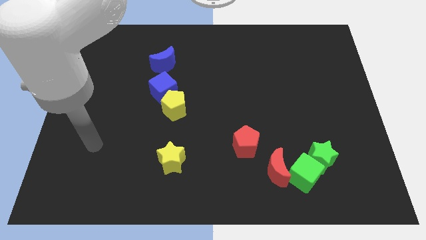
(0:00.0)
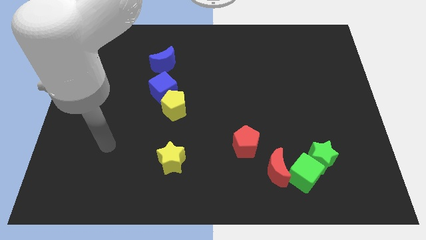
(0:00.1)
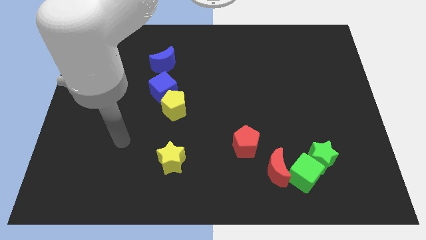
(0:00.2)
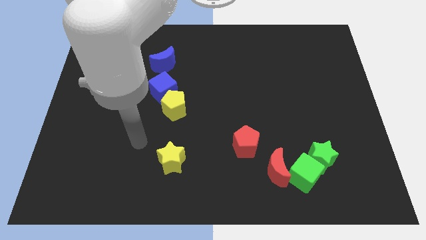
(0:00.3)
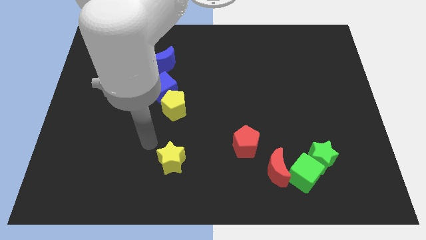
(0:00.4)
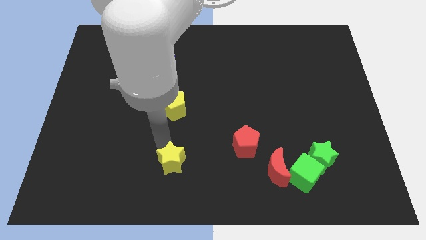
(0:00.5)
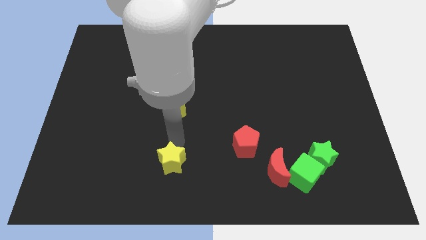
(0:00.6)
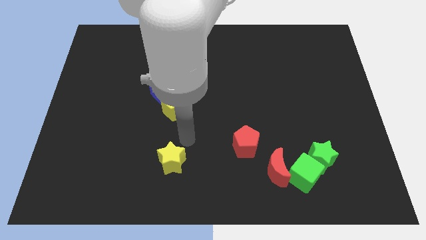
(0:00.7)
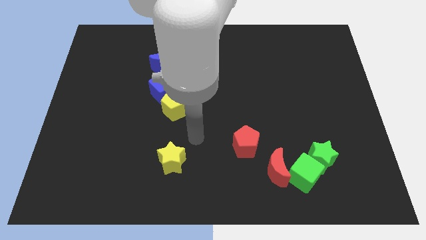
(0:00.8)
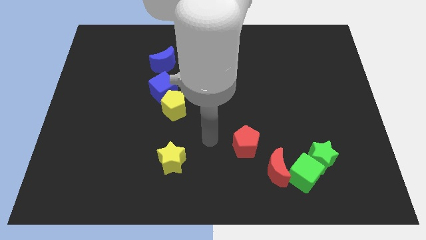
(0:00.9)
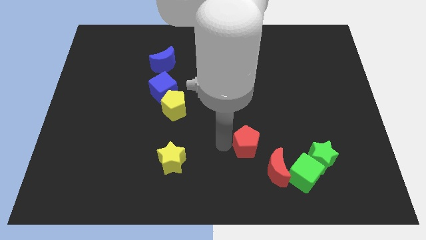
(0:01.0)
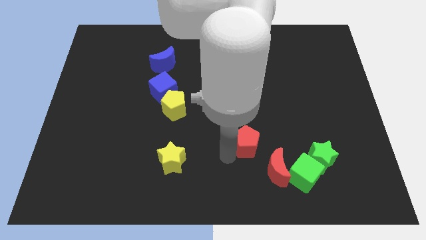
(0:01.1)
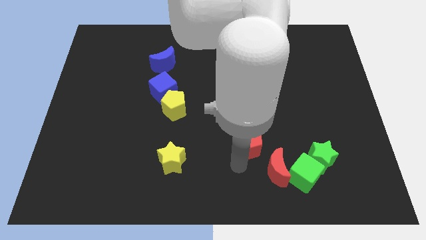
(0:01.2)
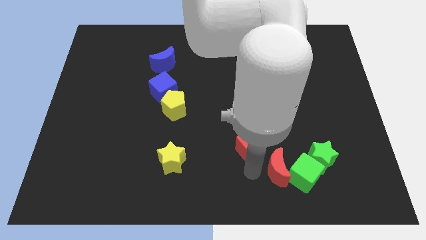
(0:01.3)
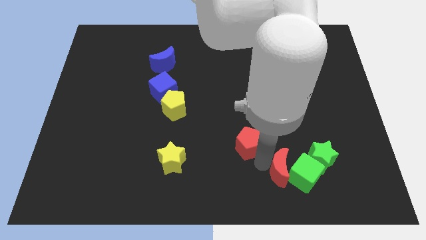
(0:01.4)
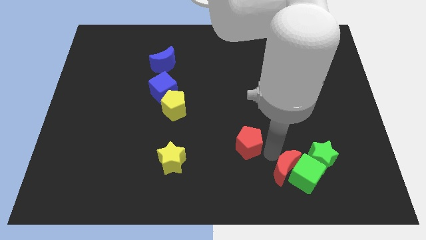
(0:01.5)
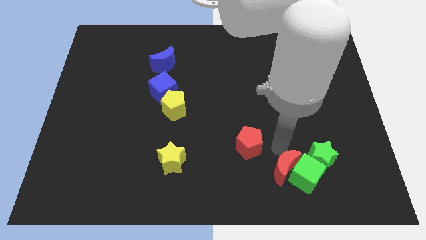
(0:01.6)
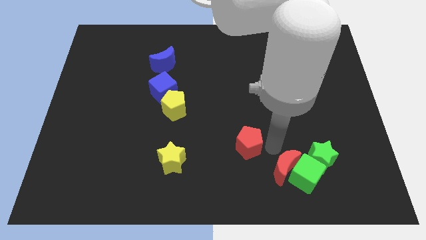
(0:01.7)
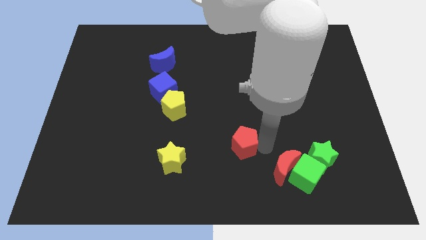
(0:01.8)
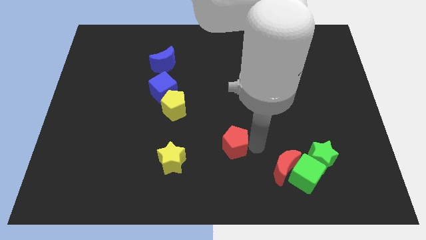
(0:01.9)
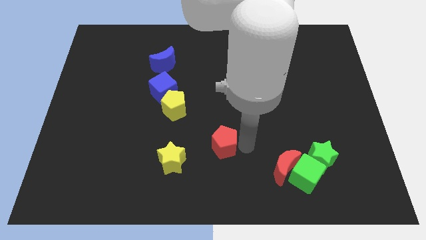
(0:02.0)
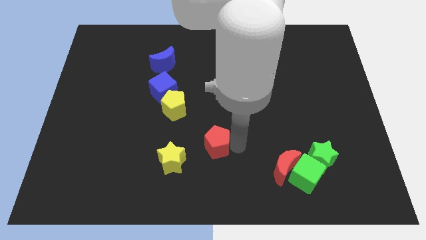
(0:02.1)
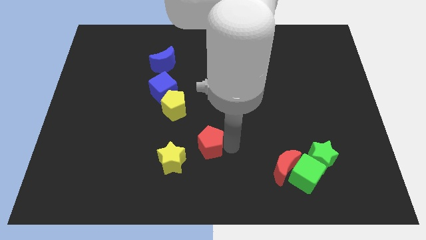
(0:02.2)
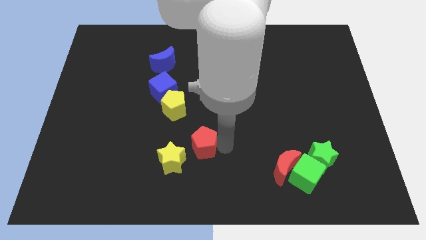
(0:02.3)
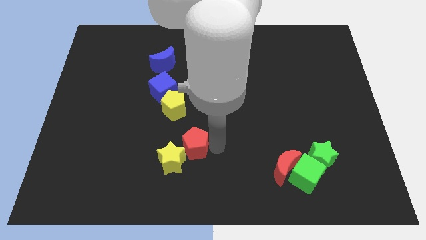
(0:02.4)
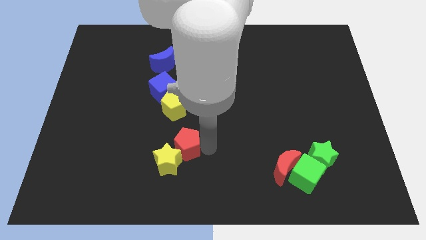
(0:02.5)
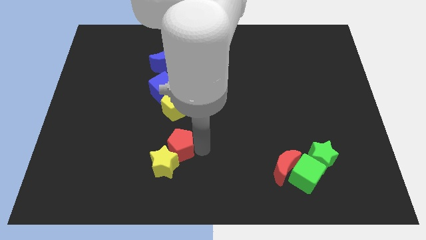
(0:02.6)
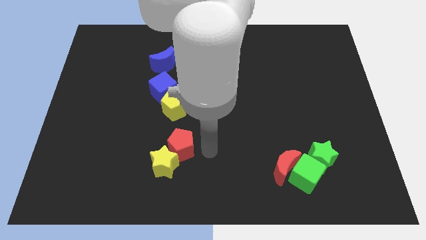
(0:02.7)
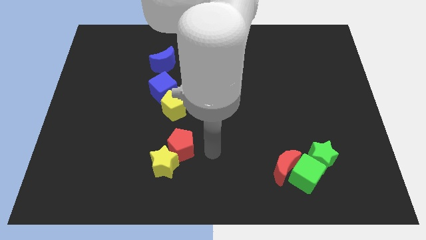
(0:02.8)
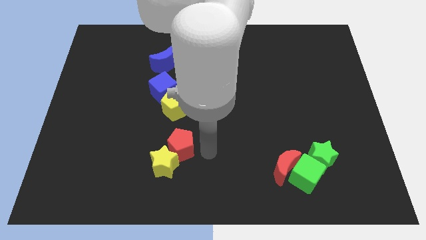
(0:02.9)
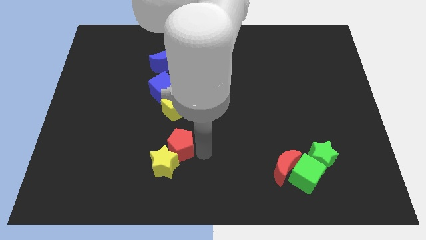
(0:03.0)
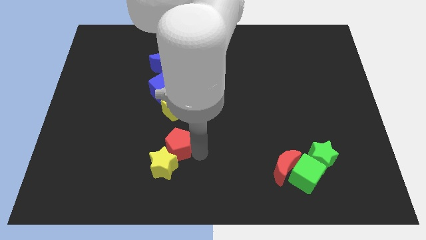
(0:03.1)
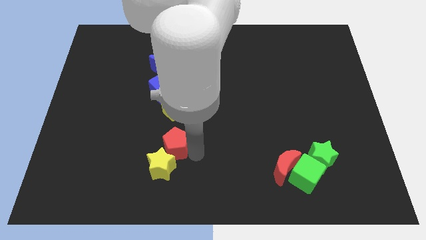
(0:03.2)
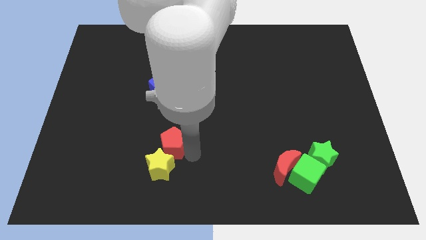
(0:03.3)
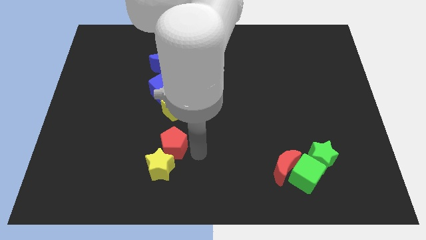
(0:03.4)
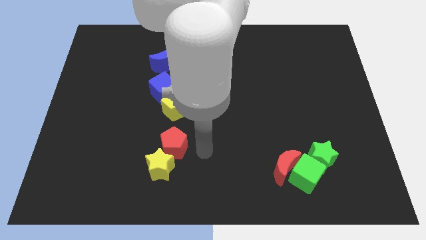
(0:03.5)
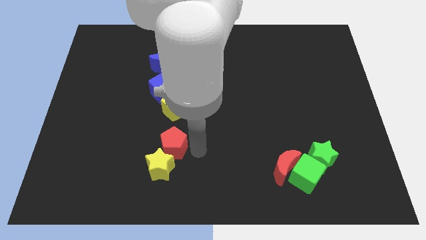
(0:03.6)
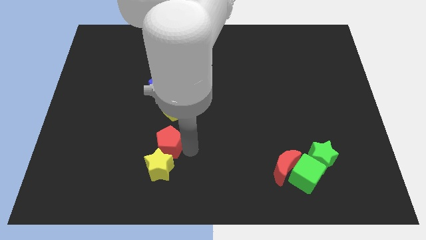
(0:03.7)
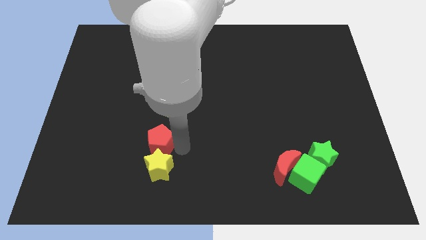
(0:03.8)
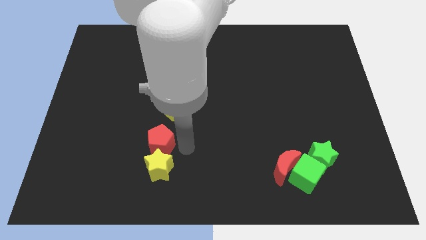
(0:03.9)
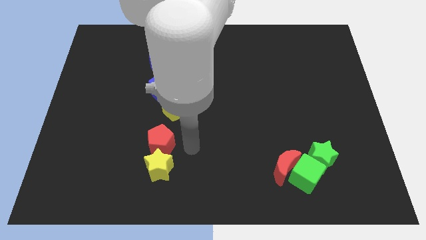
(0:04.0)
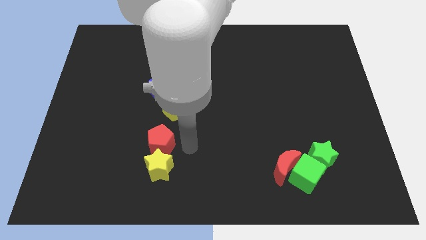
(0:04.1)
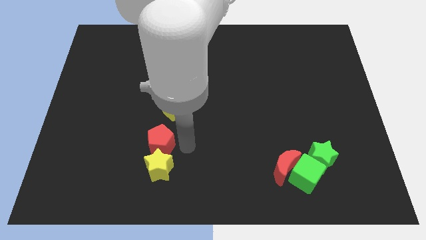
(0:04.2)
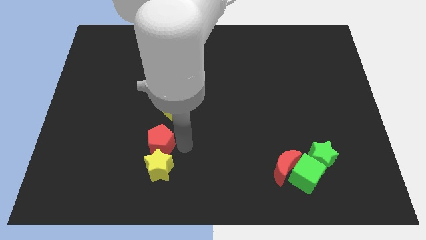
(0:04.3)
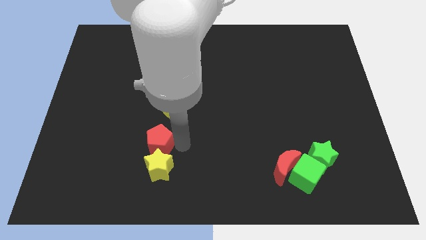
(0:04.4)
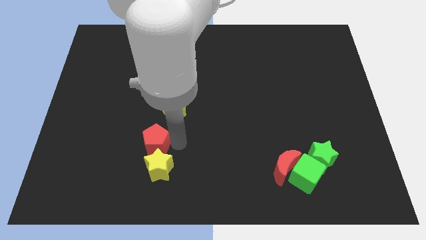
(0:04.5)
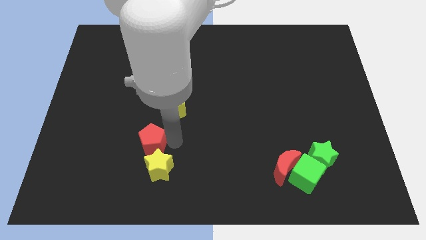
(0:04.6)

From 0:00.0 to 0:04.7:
slide the red pentagon to the left

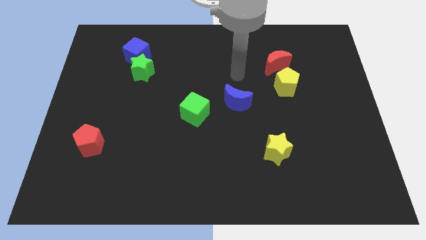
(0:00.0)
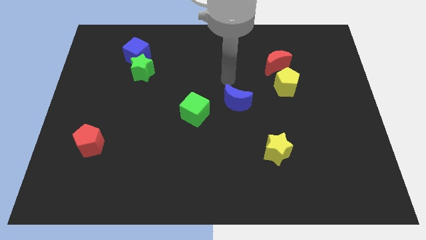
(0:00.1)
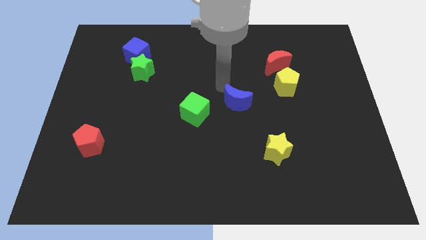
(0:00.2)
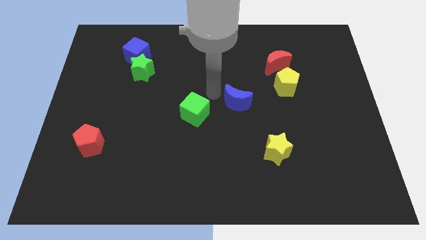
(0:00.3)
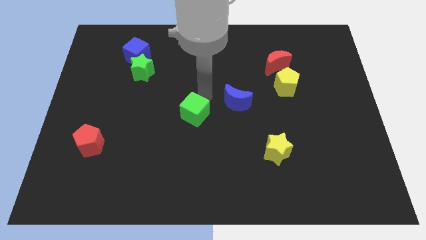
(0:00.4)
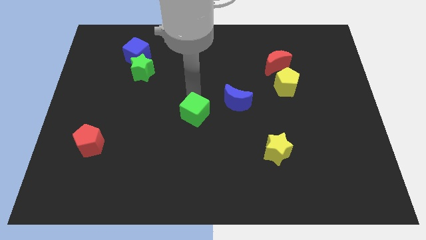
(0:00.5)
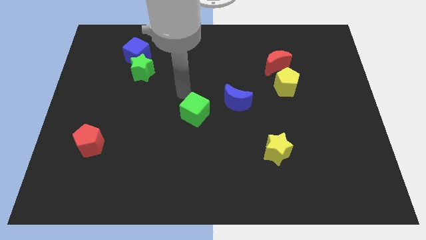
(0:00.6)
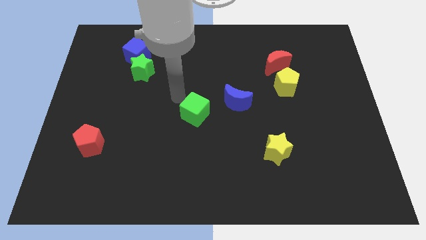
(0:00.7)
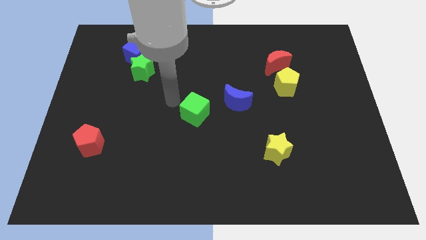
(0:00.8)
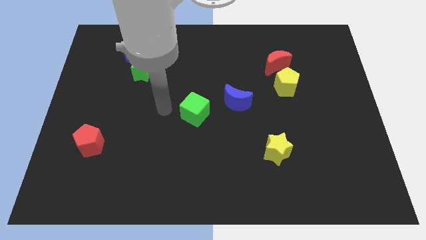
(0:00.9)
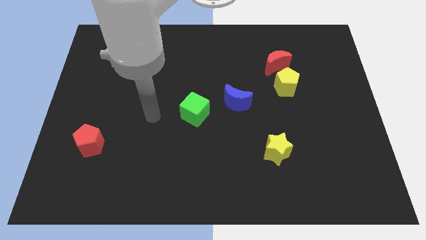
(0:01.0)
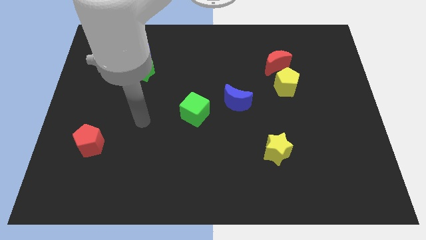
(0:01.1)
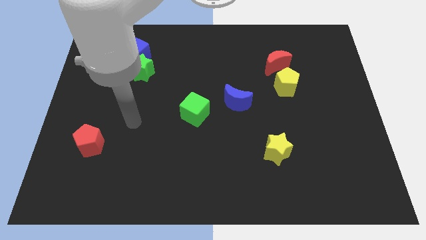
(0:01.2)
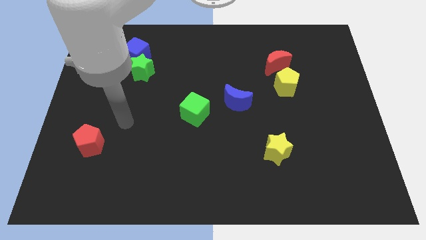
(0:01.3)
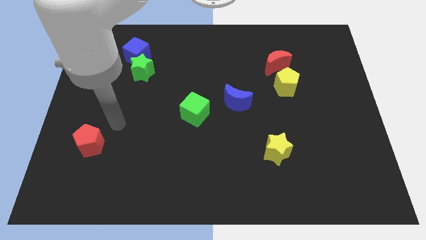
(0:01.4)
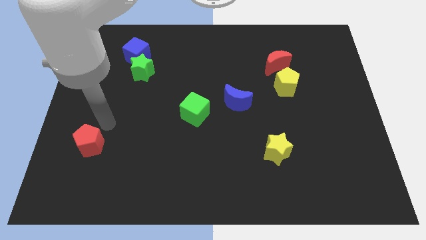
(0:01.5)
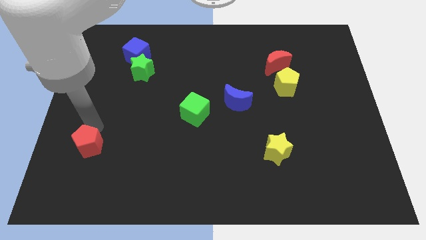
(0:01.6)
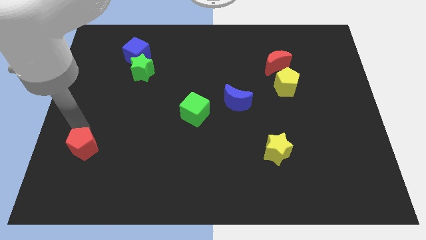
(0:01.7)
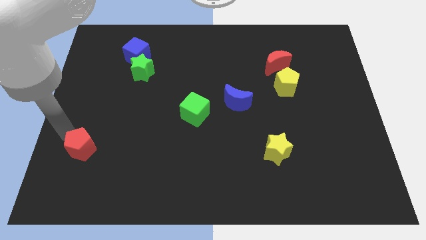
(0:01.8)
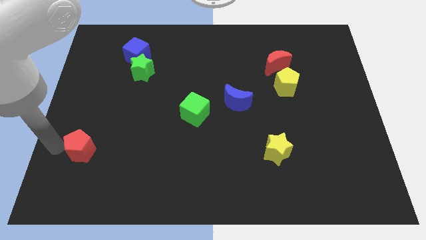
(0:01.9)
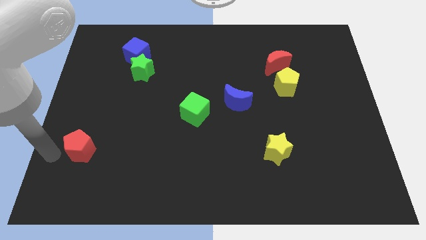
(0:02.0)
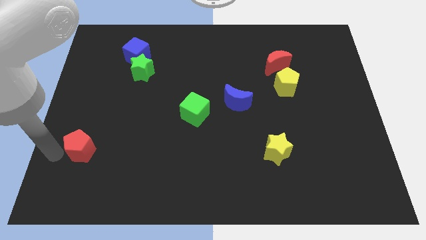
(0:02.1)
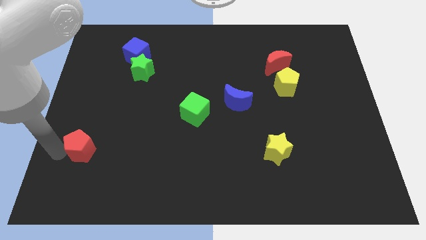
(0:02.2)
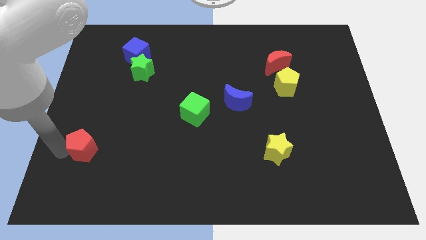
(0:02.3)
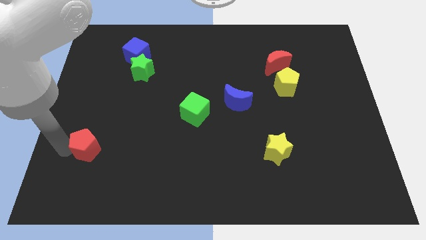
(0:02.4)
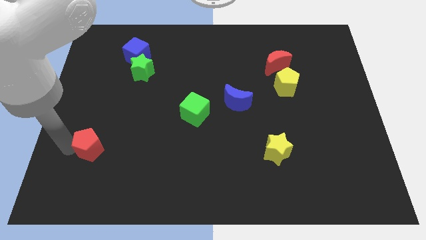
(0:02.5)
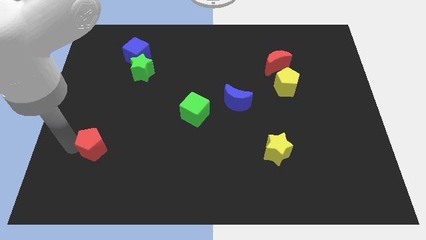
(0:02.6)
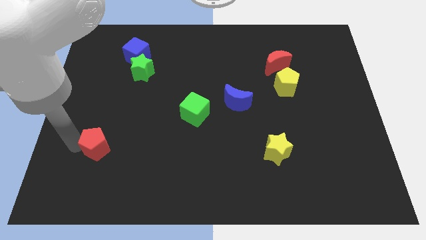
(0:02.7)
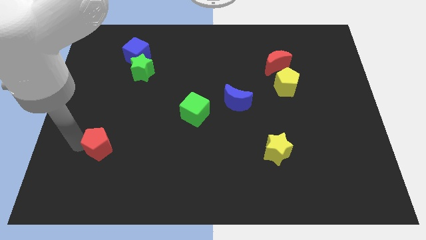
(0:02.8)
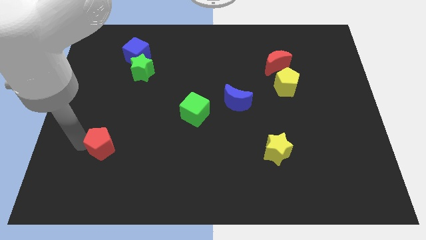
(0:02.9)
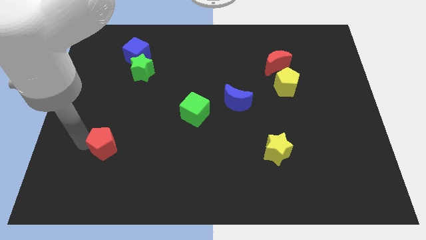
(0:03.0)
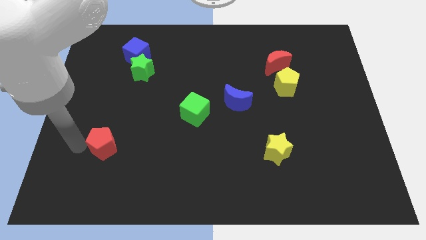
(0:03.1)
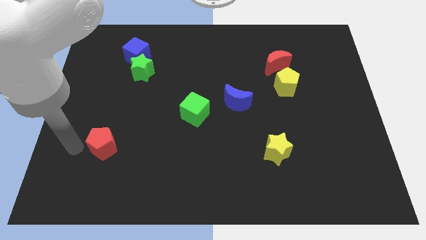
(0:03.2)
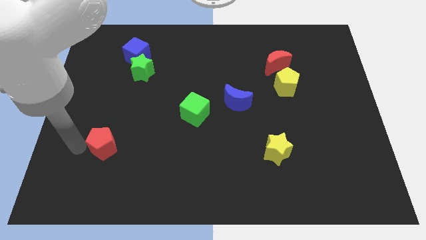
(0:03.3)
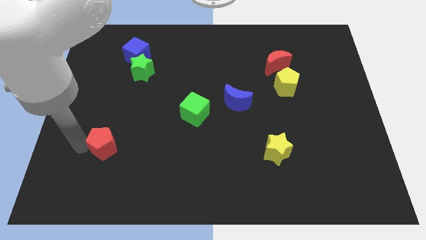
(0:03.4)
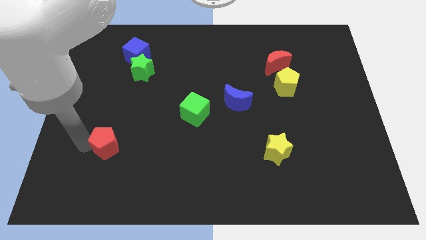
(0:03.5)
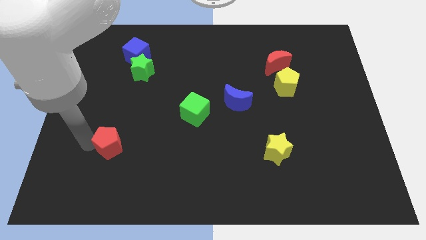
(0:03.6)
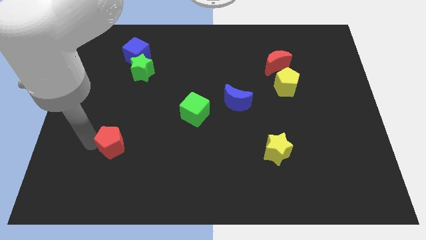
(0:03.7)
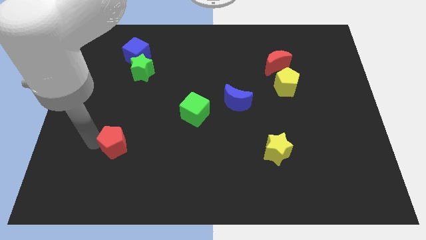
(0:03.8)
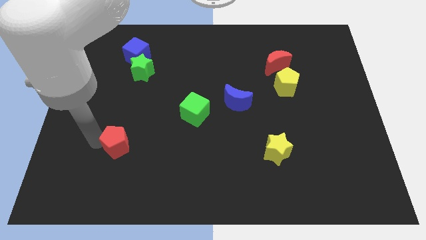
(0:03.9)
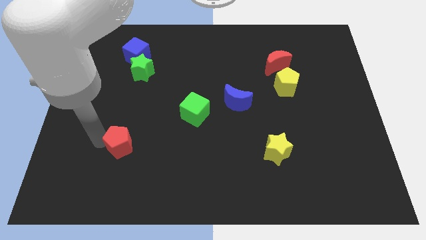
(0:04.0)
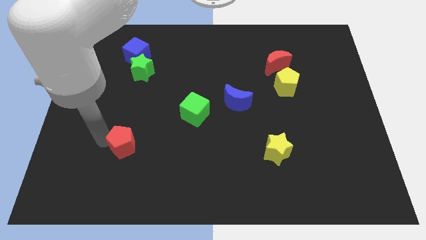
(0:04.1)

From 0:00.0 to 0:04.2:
move the red pentagon to the right somewhat
